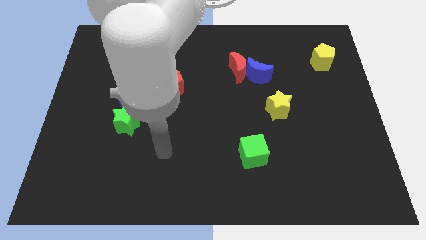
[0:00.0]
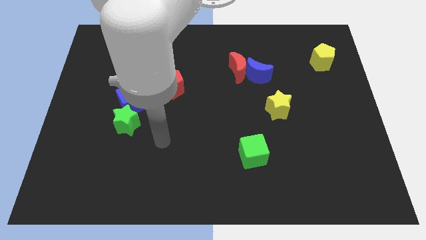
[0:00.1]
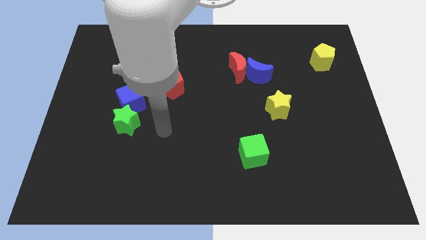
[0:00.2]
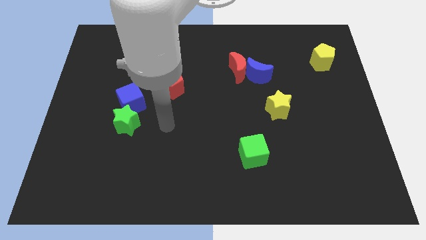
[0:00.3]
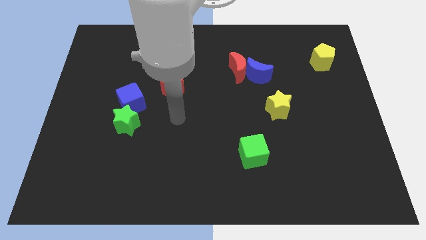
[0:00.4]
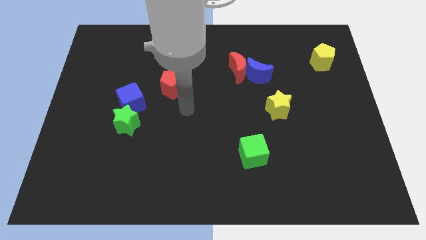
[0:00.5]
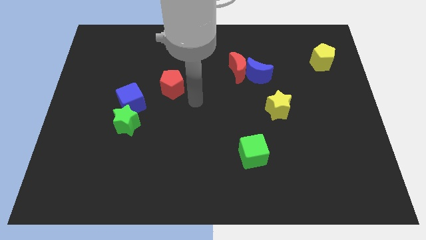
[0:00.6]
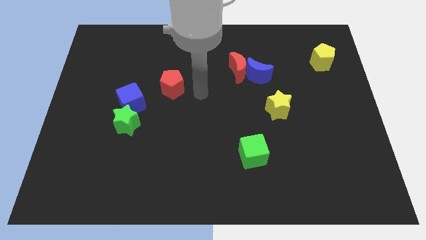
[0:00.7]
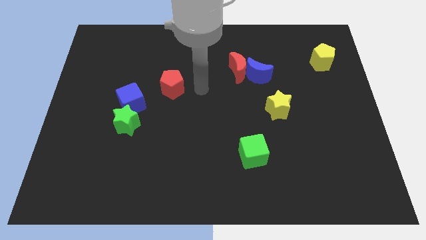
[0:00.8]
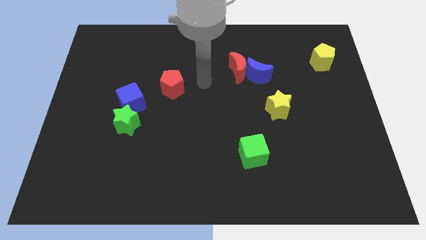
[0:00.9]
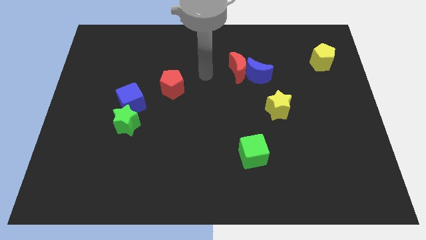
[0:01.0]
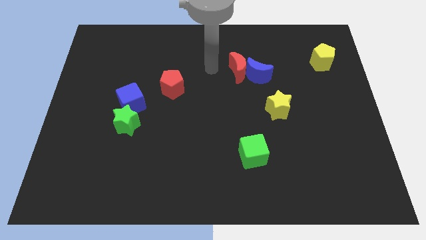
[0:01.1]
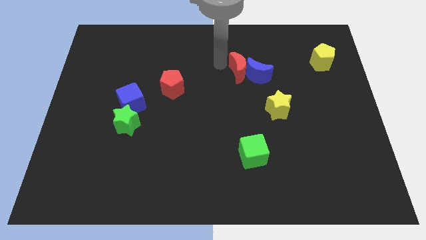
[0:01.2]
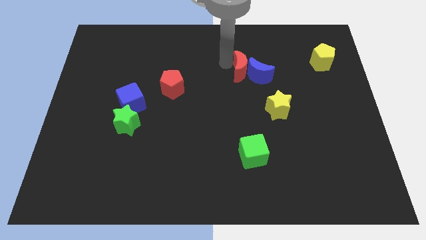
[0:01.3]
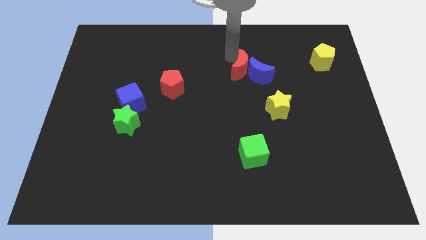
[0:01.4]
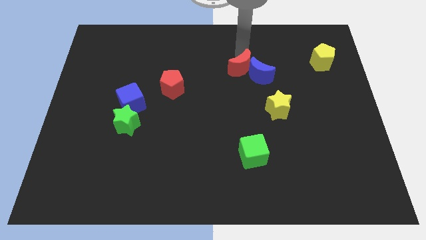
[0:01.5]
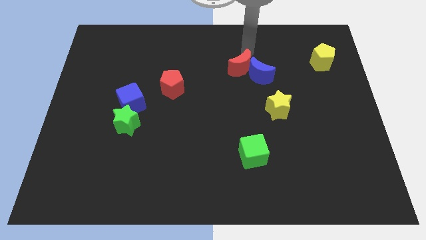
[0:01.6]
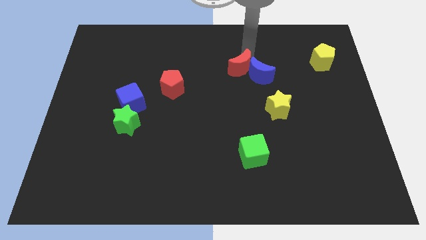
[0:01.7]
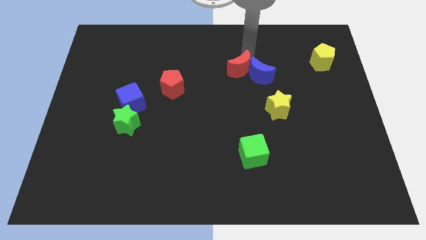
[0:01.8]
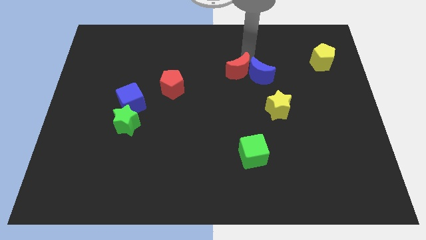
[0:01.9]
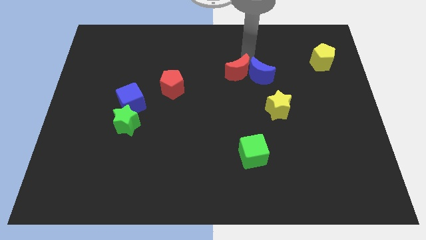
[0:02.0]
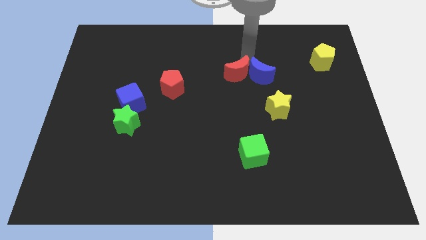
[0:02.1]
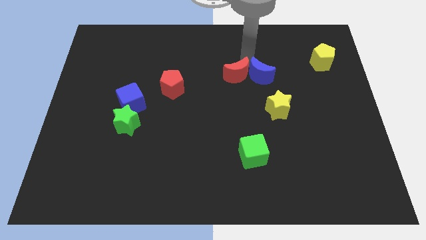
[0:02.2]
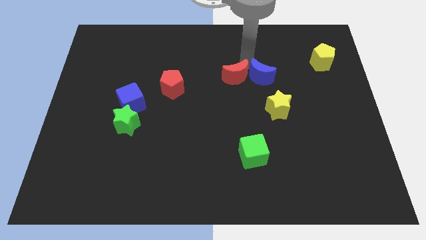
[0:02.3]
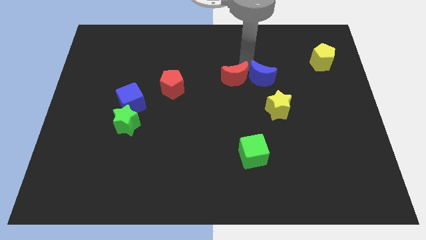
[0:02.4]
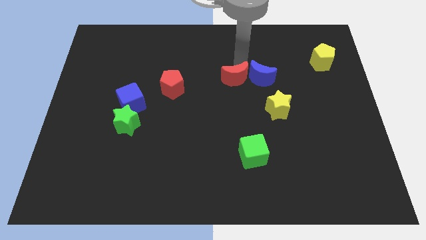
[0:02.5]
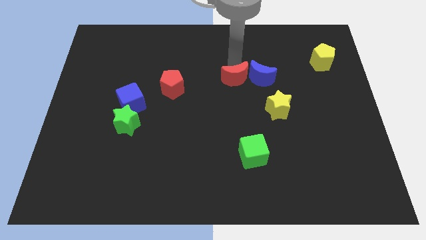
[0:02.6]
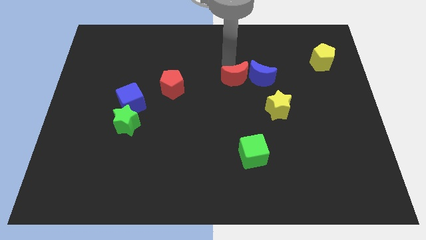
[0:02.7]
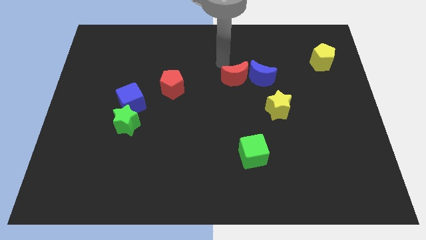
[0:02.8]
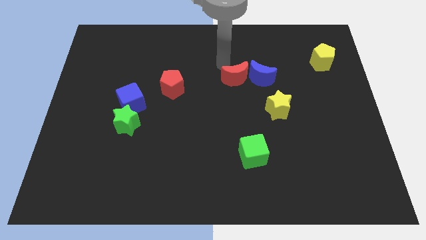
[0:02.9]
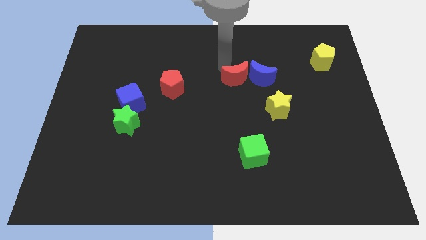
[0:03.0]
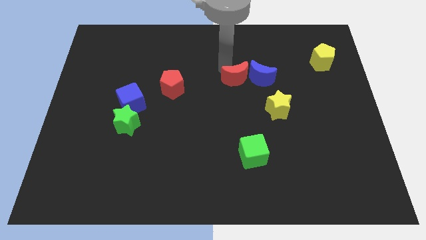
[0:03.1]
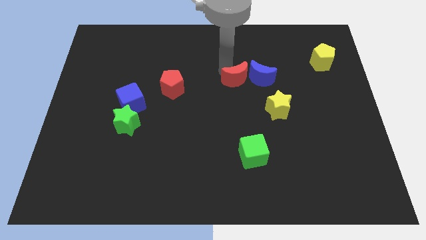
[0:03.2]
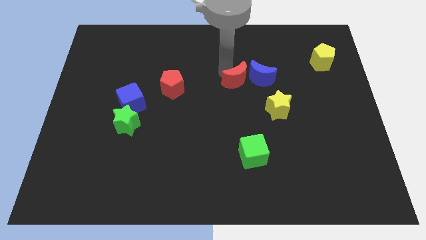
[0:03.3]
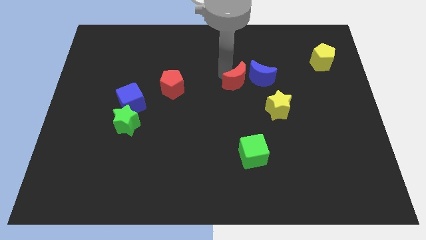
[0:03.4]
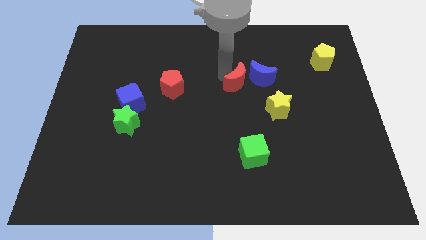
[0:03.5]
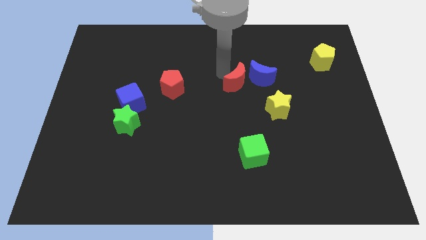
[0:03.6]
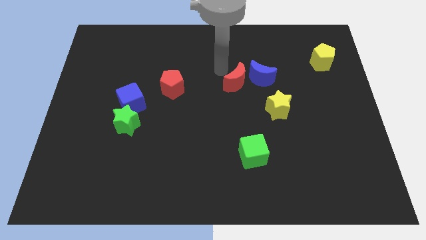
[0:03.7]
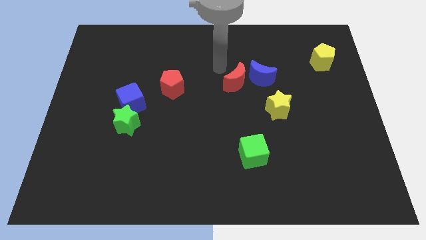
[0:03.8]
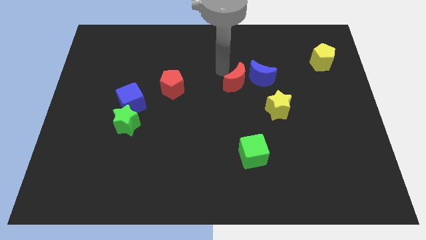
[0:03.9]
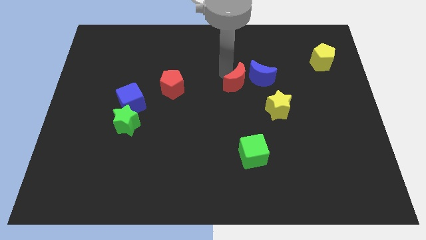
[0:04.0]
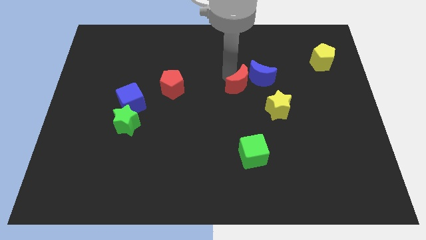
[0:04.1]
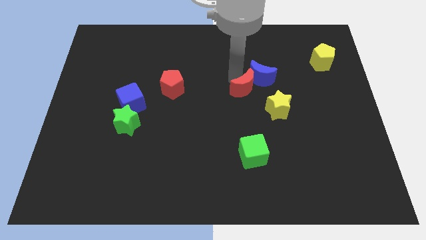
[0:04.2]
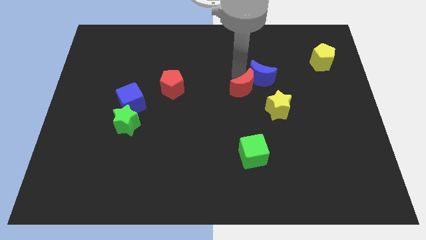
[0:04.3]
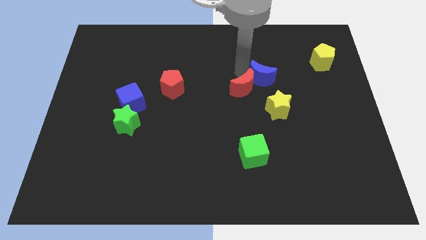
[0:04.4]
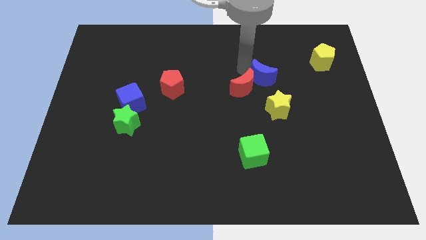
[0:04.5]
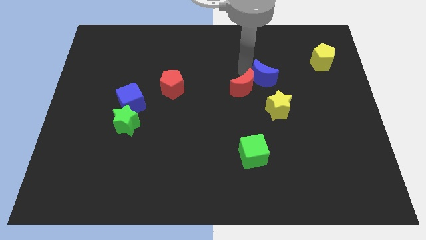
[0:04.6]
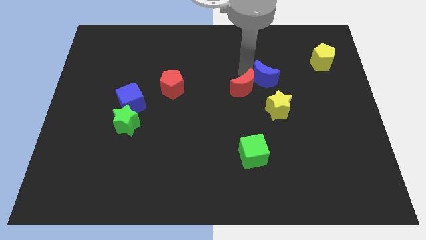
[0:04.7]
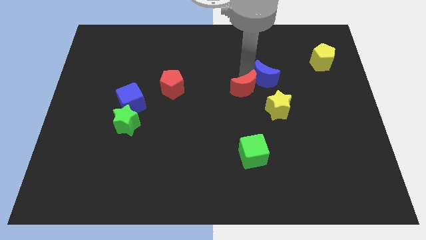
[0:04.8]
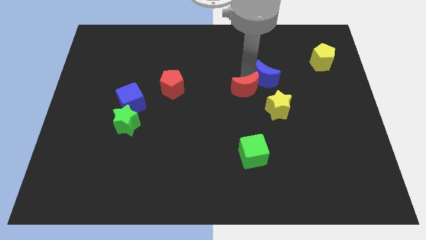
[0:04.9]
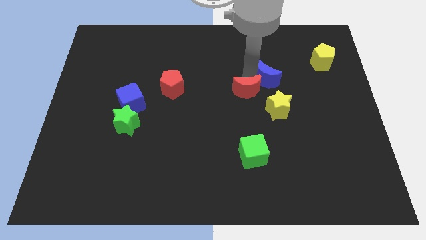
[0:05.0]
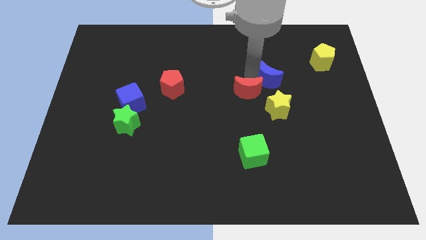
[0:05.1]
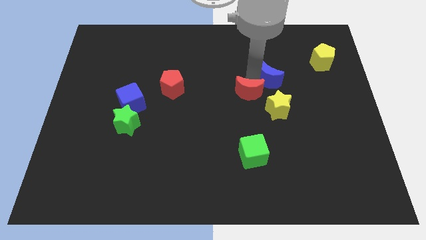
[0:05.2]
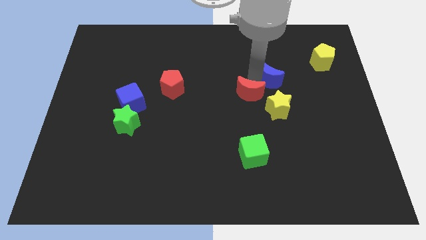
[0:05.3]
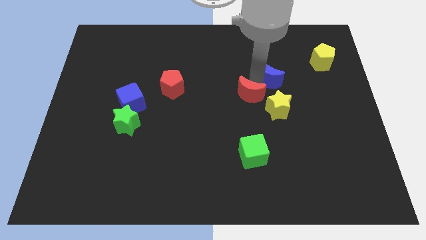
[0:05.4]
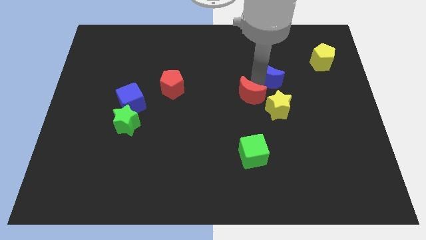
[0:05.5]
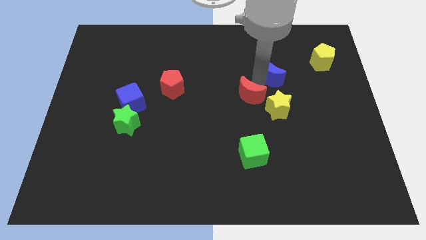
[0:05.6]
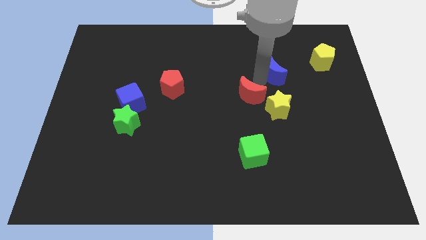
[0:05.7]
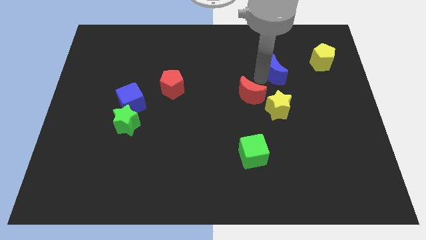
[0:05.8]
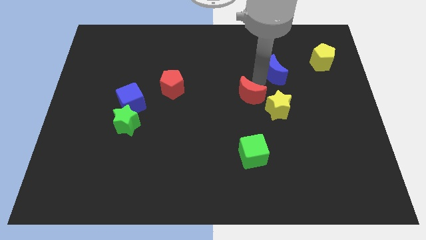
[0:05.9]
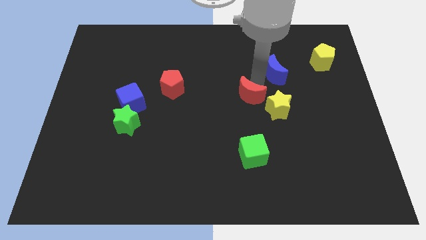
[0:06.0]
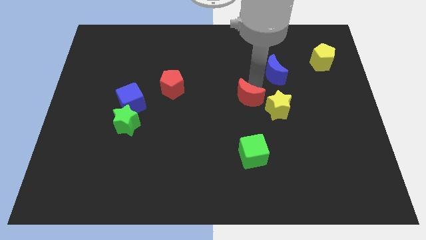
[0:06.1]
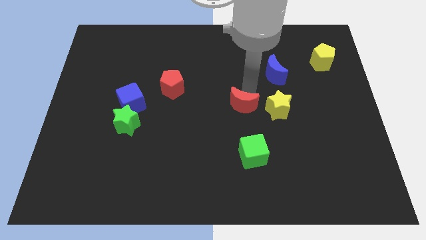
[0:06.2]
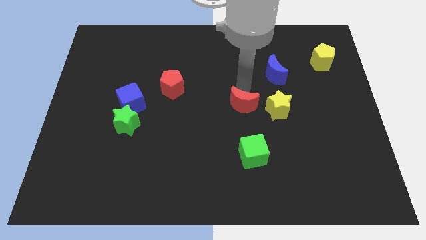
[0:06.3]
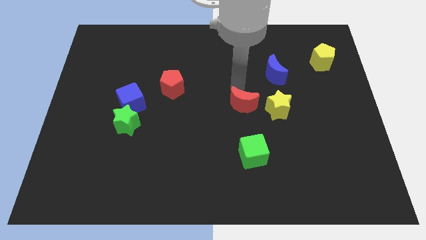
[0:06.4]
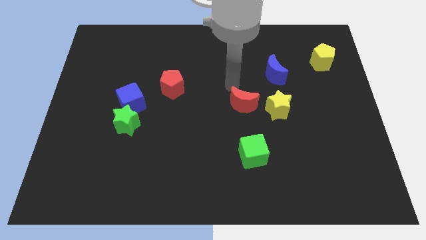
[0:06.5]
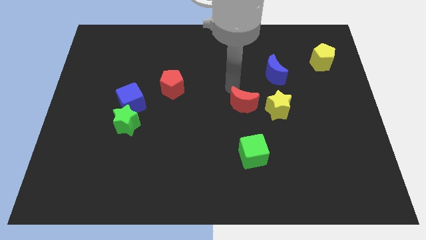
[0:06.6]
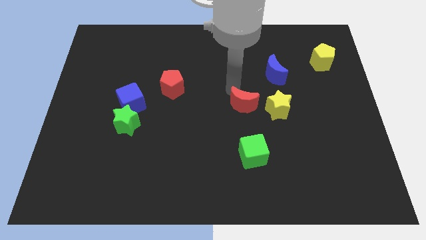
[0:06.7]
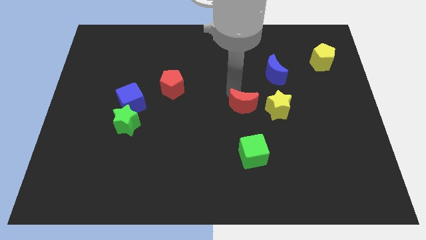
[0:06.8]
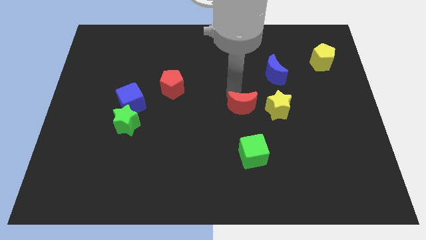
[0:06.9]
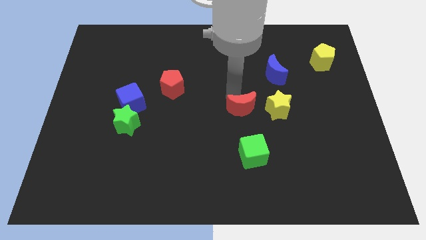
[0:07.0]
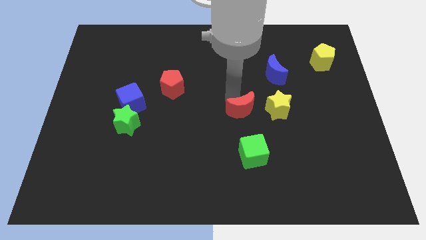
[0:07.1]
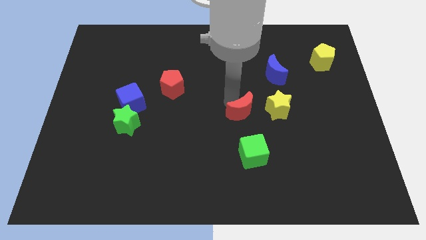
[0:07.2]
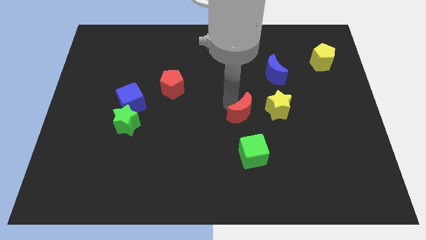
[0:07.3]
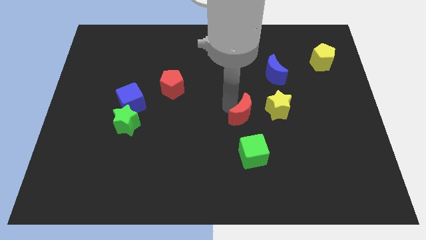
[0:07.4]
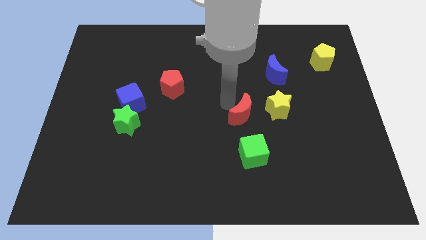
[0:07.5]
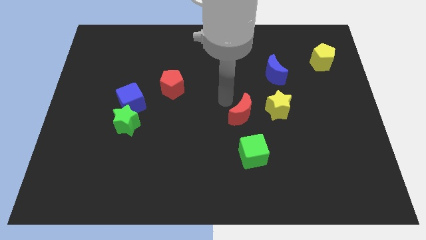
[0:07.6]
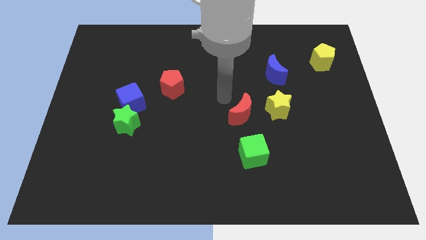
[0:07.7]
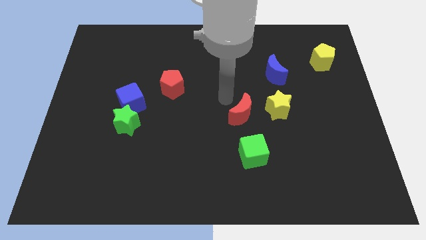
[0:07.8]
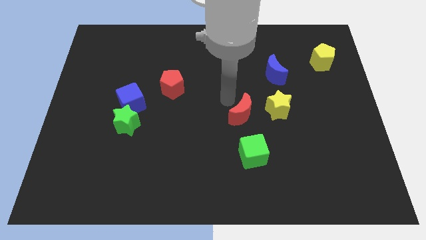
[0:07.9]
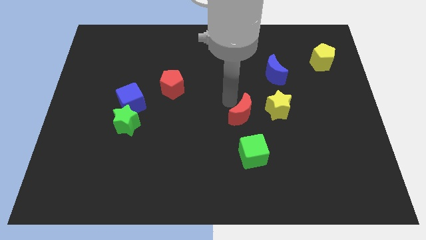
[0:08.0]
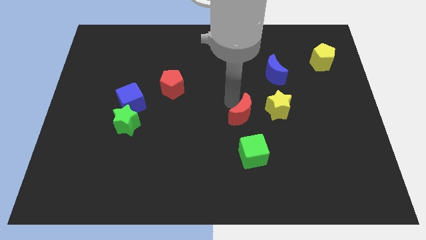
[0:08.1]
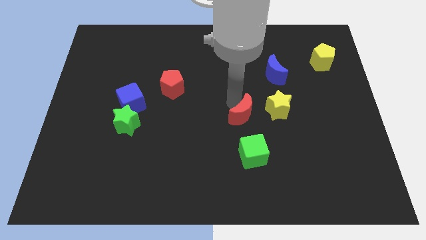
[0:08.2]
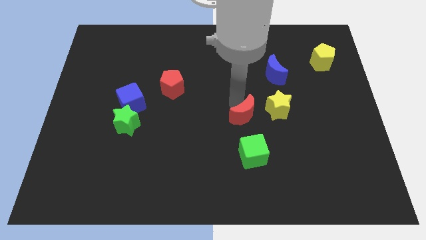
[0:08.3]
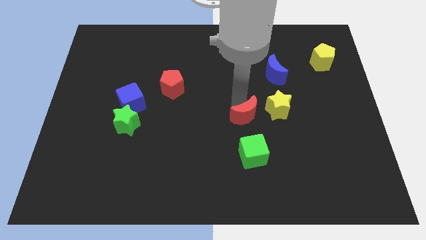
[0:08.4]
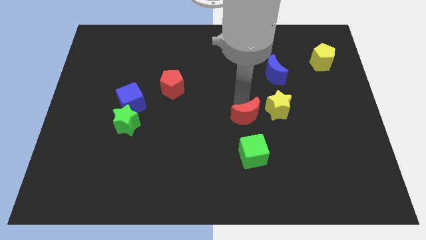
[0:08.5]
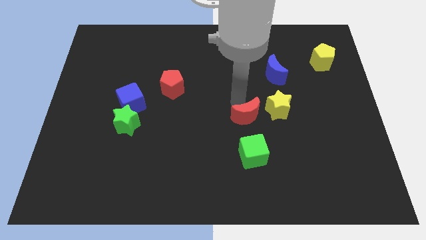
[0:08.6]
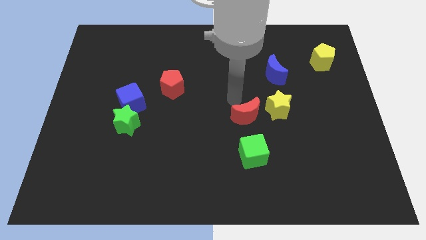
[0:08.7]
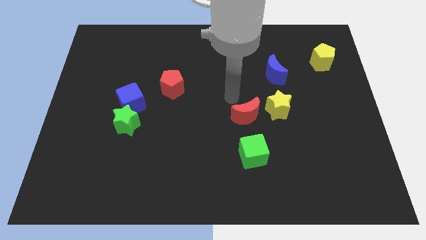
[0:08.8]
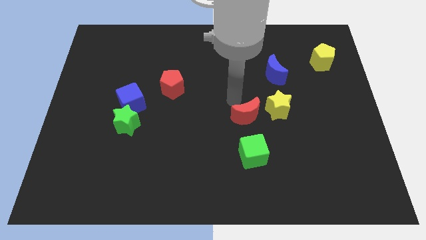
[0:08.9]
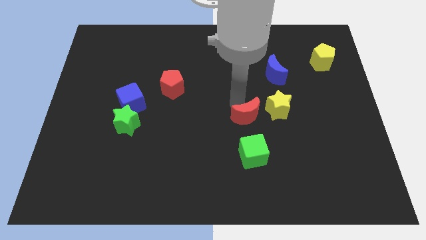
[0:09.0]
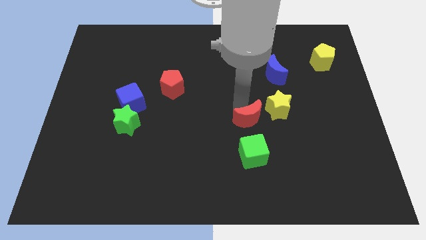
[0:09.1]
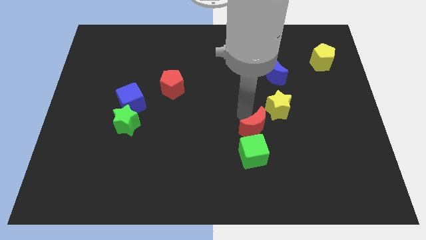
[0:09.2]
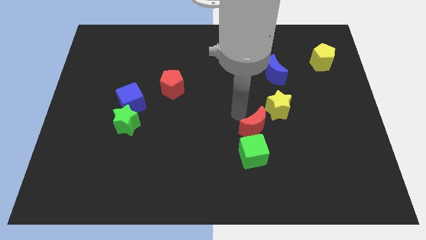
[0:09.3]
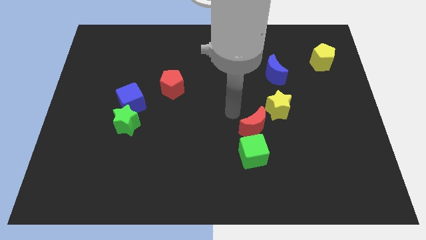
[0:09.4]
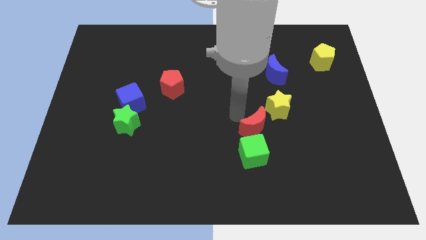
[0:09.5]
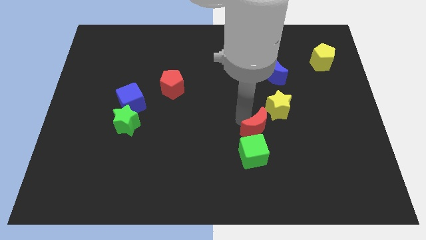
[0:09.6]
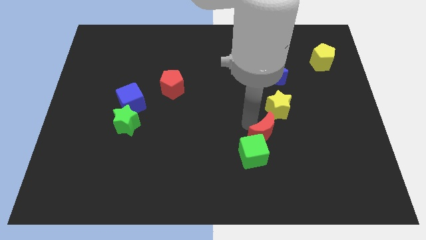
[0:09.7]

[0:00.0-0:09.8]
move the red moon to the bottom of the yellow star
